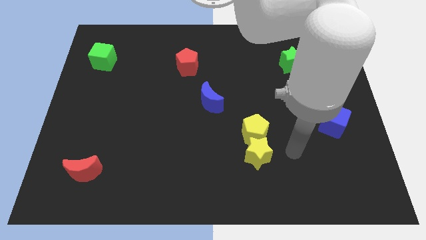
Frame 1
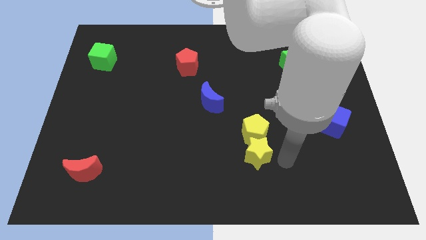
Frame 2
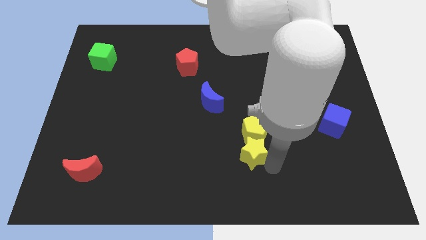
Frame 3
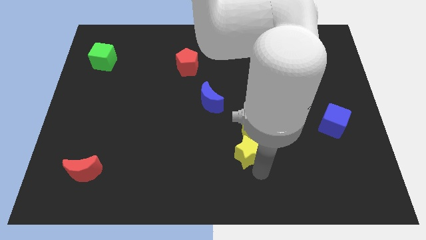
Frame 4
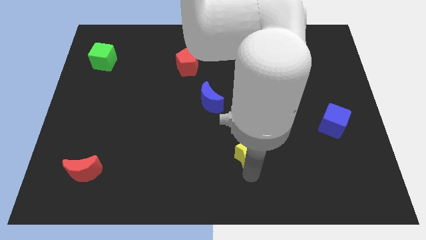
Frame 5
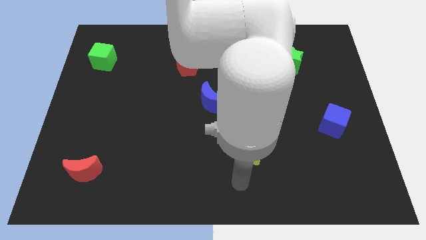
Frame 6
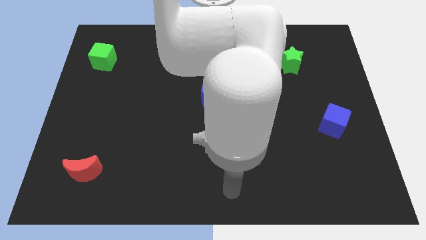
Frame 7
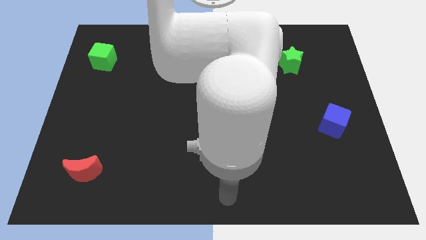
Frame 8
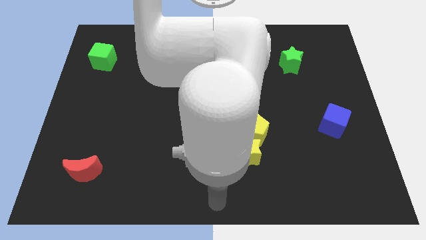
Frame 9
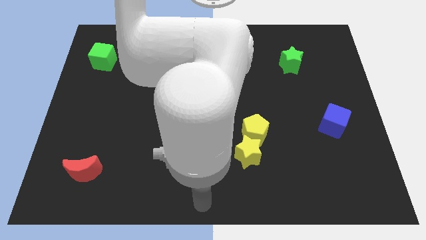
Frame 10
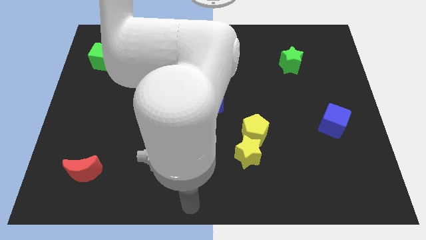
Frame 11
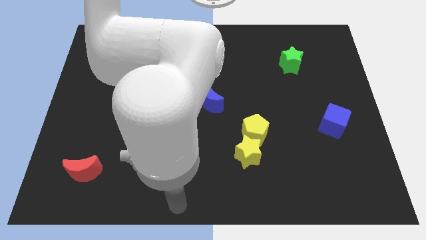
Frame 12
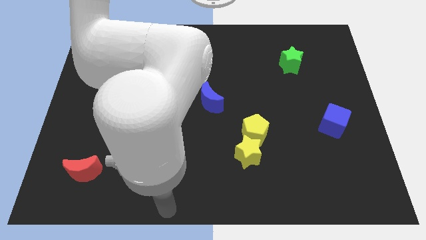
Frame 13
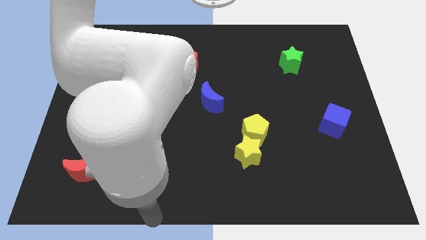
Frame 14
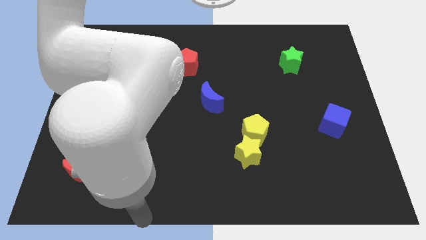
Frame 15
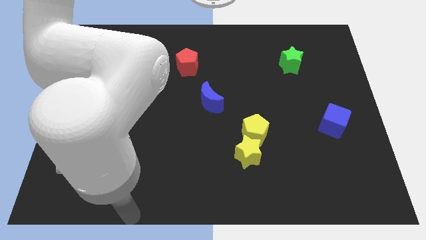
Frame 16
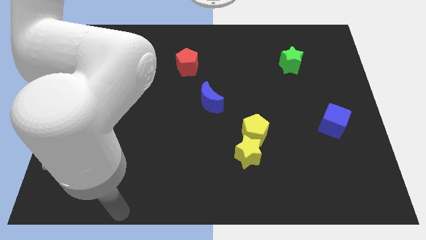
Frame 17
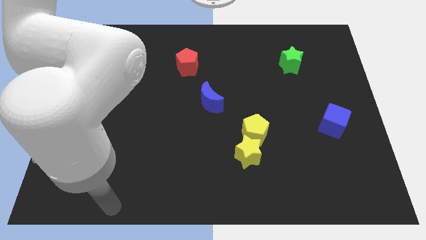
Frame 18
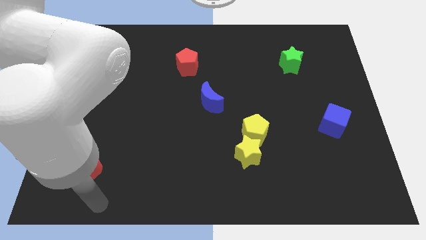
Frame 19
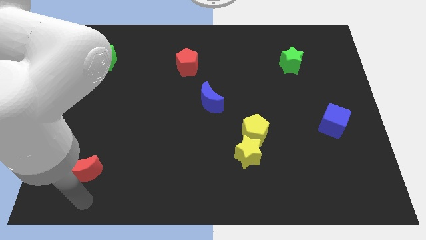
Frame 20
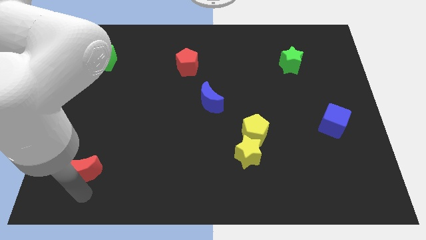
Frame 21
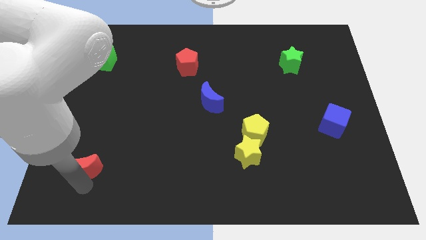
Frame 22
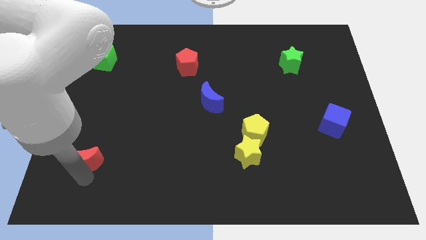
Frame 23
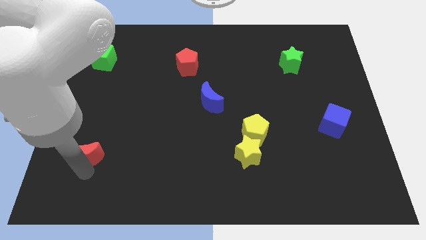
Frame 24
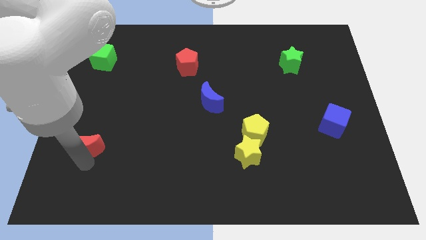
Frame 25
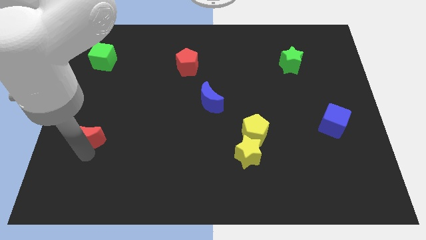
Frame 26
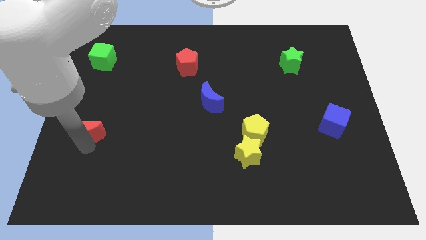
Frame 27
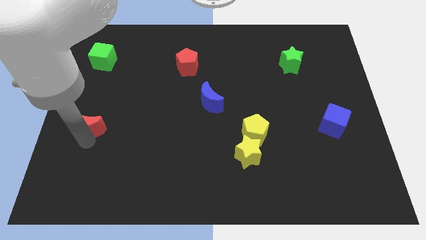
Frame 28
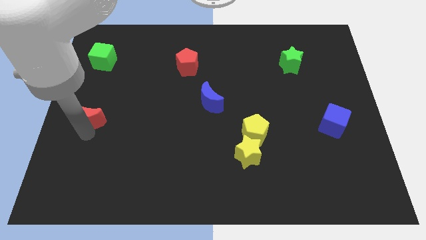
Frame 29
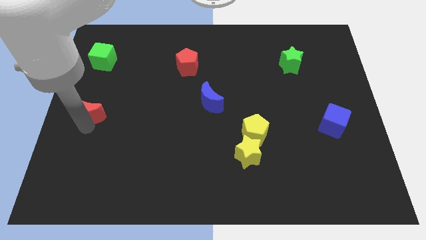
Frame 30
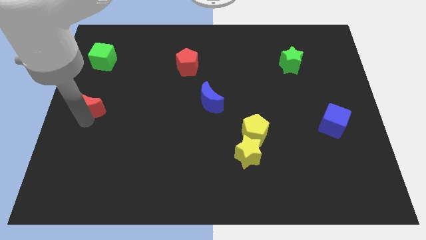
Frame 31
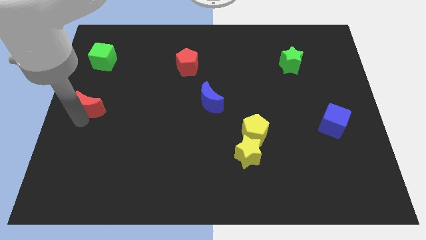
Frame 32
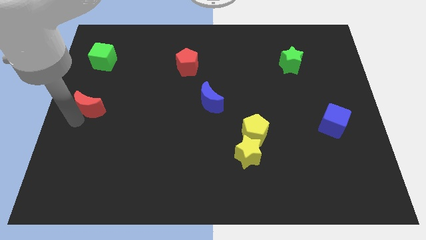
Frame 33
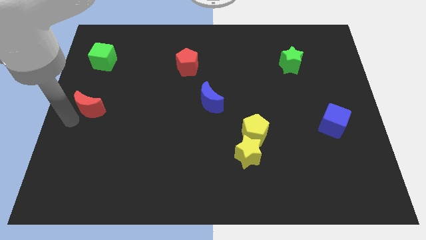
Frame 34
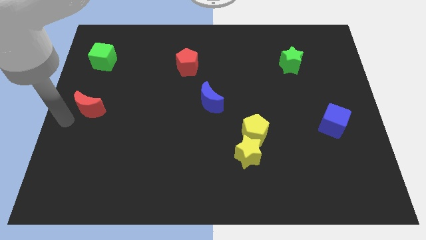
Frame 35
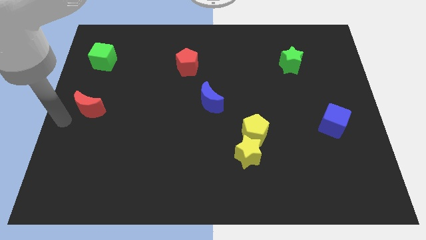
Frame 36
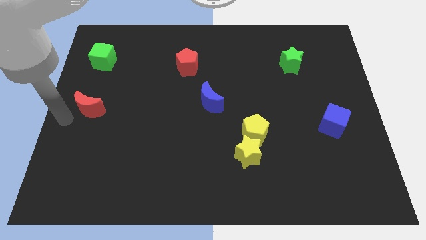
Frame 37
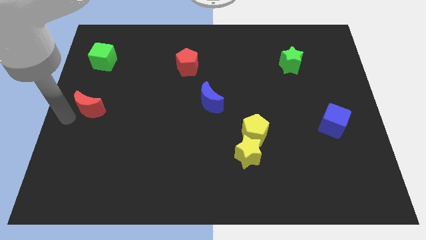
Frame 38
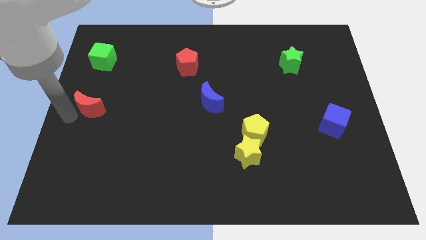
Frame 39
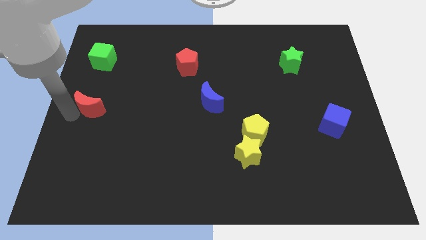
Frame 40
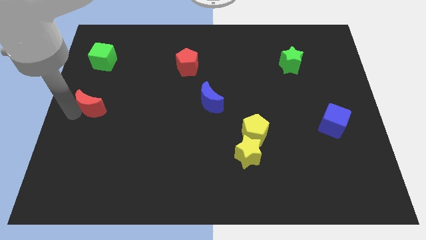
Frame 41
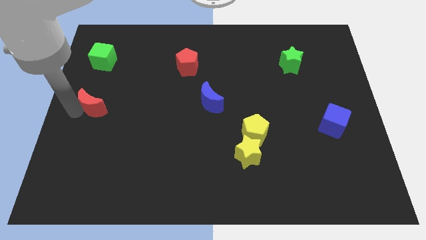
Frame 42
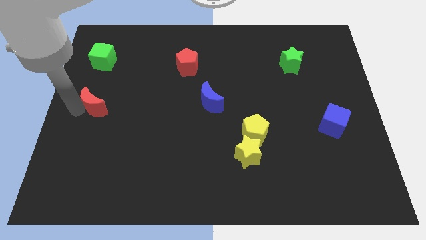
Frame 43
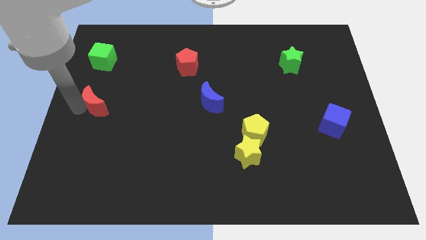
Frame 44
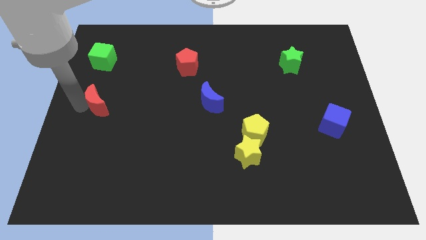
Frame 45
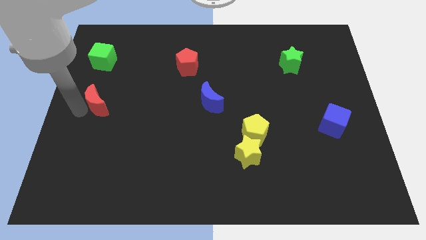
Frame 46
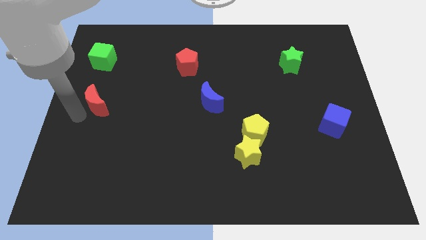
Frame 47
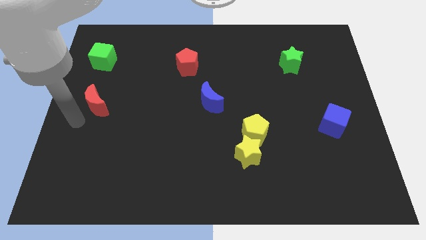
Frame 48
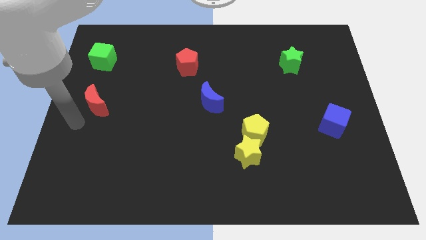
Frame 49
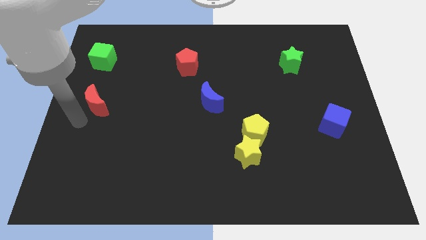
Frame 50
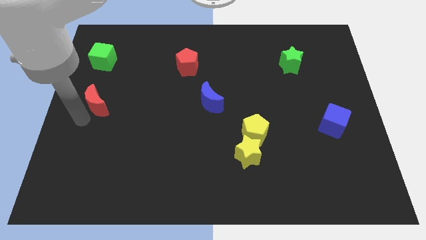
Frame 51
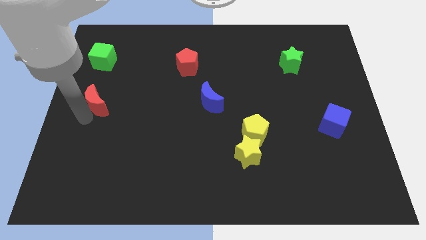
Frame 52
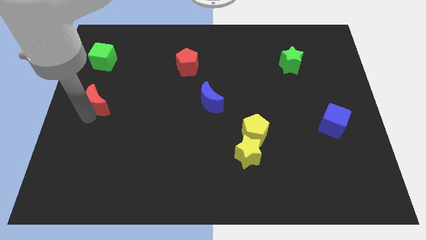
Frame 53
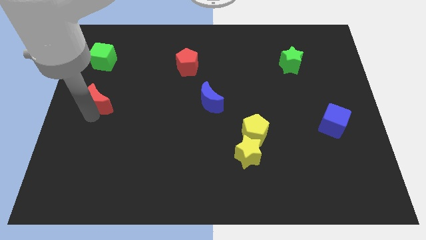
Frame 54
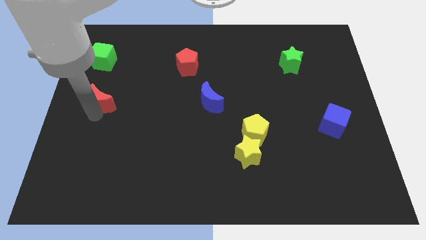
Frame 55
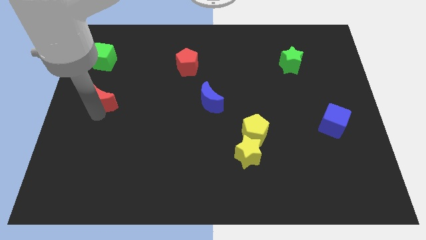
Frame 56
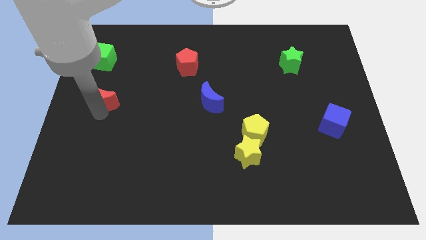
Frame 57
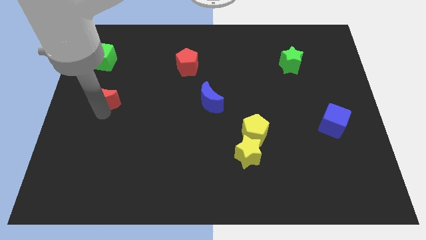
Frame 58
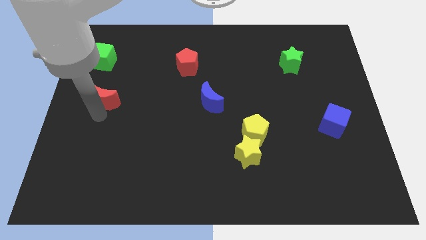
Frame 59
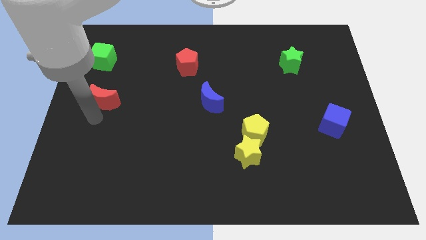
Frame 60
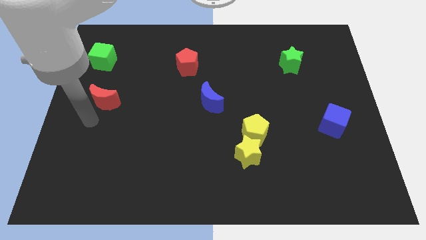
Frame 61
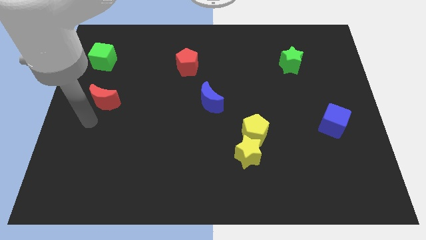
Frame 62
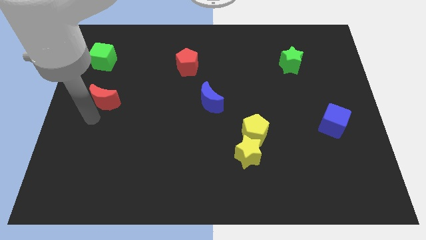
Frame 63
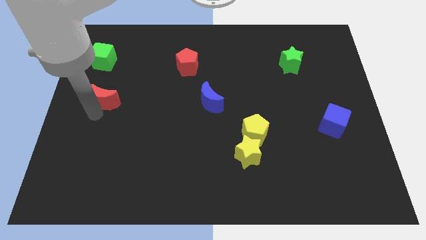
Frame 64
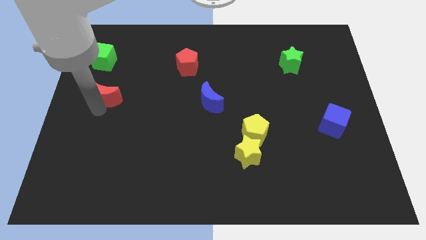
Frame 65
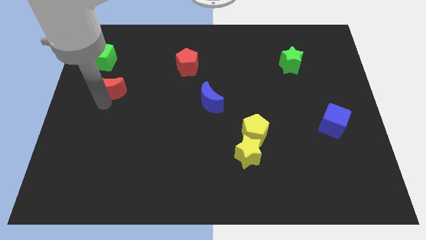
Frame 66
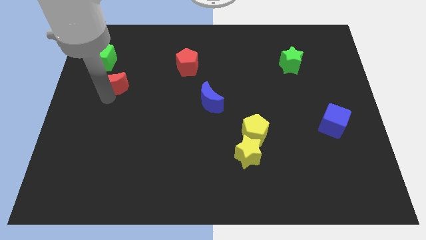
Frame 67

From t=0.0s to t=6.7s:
move the red moon to the bottom right of the green cube
